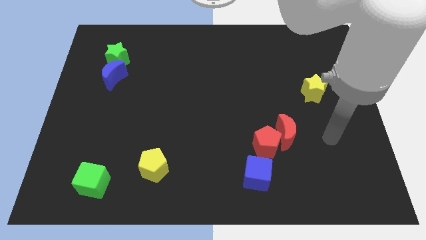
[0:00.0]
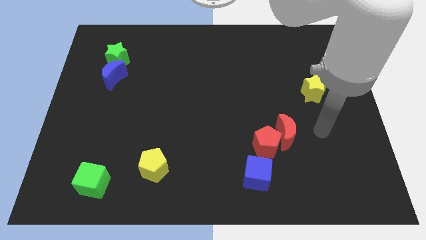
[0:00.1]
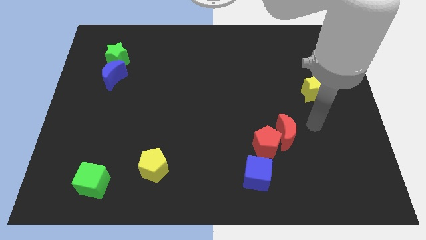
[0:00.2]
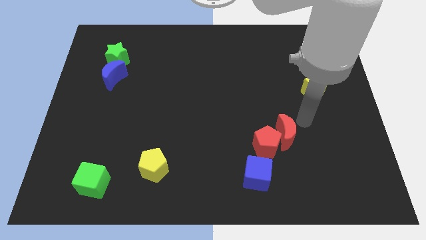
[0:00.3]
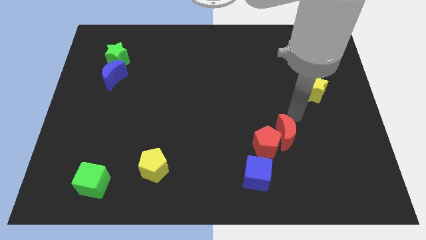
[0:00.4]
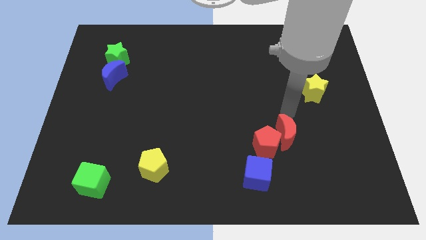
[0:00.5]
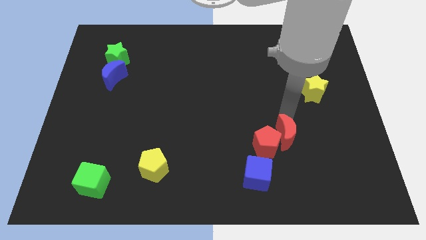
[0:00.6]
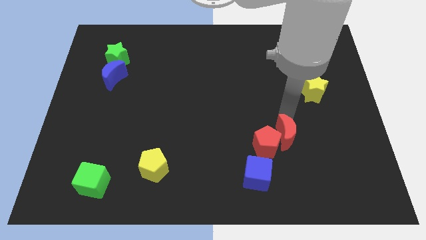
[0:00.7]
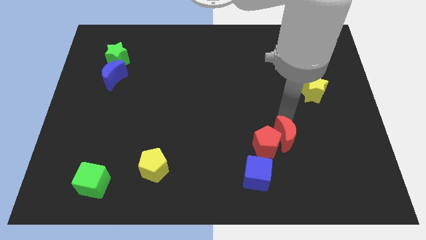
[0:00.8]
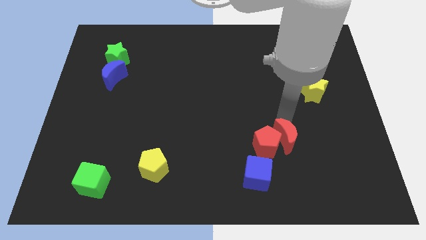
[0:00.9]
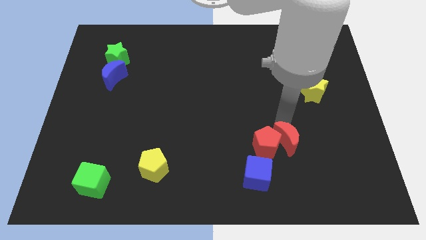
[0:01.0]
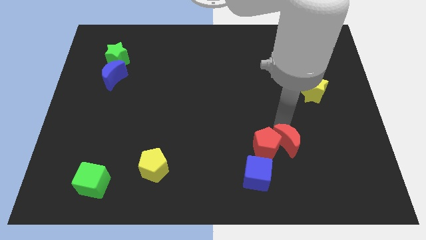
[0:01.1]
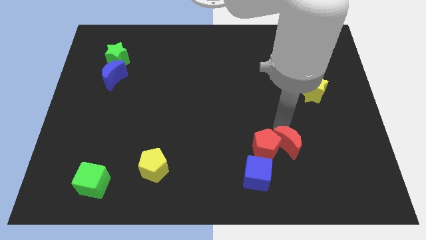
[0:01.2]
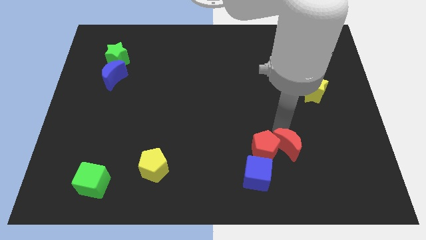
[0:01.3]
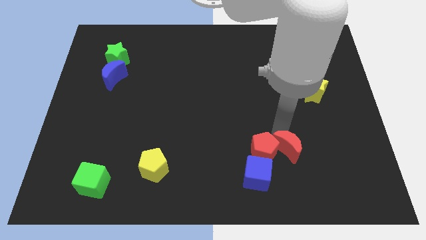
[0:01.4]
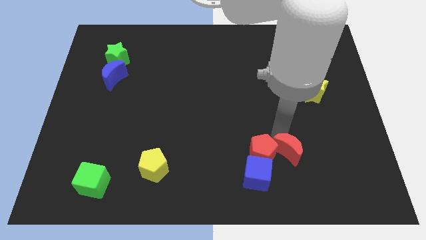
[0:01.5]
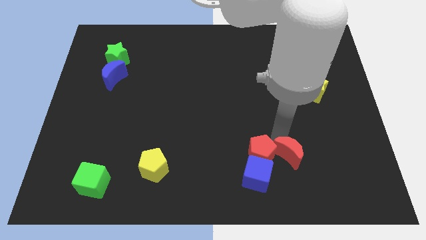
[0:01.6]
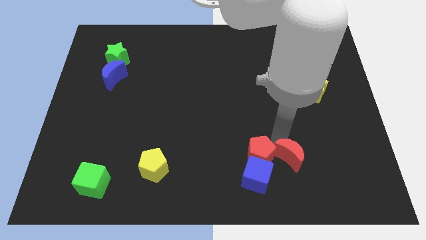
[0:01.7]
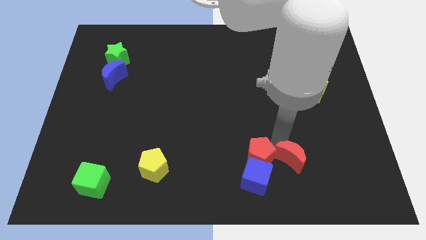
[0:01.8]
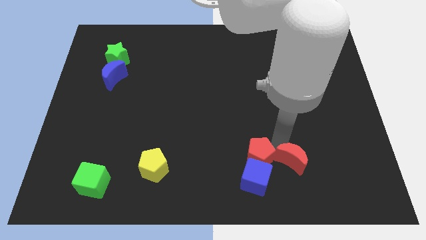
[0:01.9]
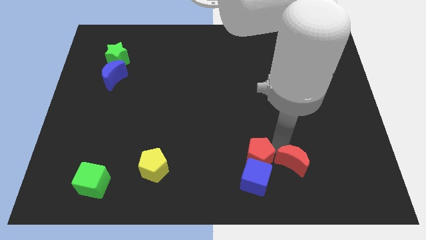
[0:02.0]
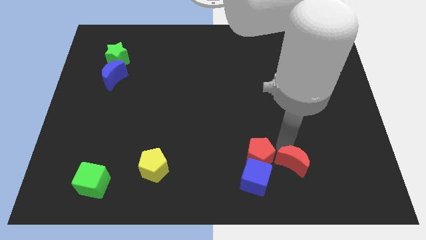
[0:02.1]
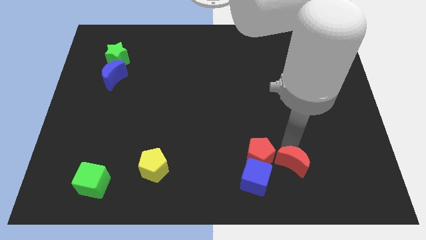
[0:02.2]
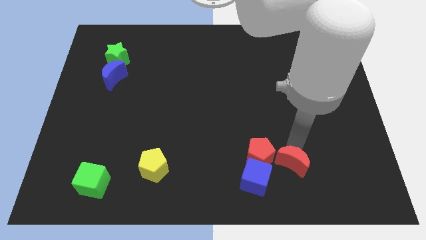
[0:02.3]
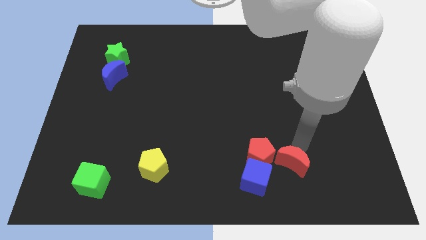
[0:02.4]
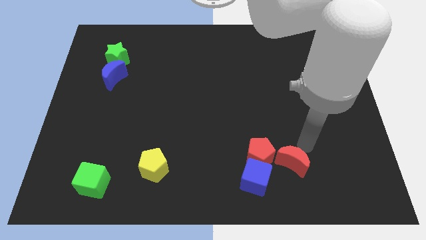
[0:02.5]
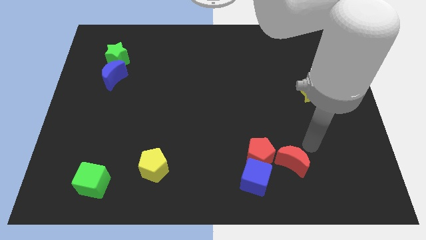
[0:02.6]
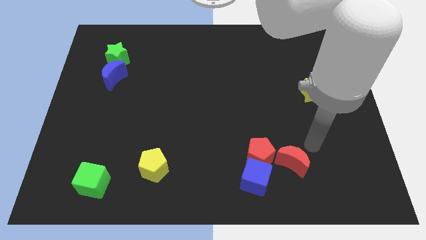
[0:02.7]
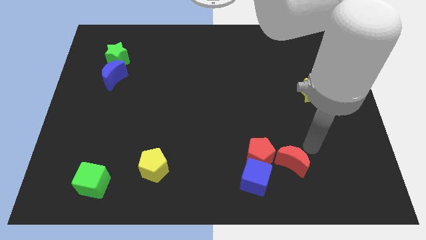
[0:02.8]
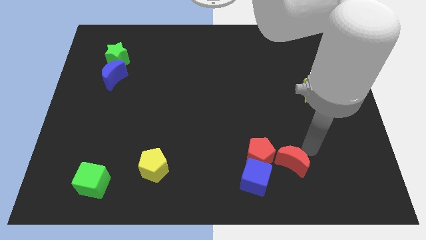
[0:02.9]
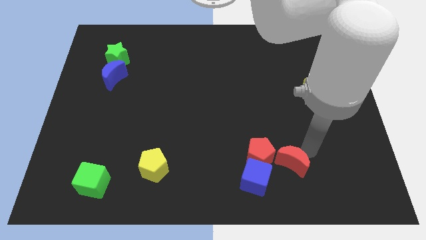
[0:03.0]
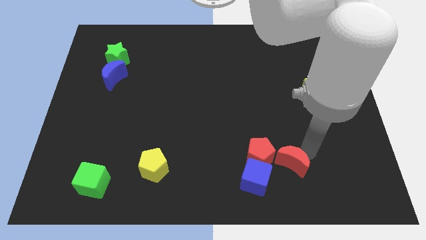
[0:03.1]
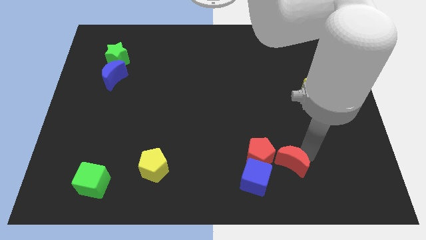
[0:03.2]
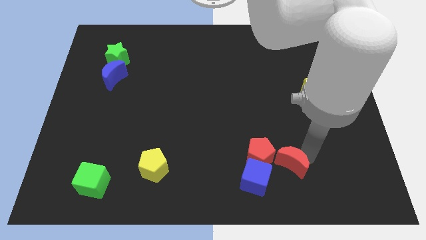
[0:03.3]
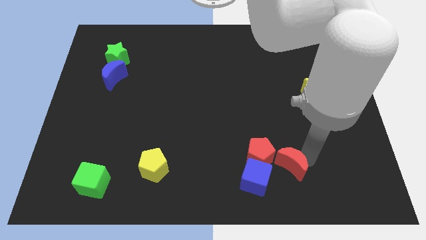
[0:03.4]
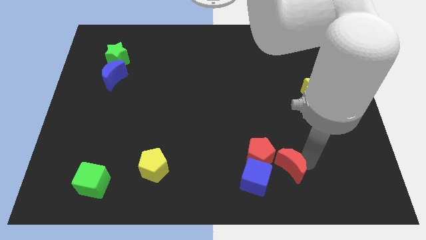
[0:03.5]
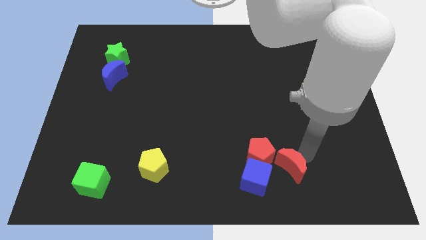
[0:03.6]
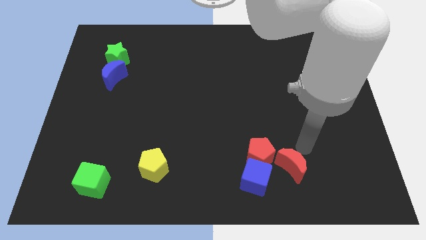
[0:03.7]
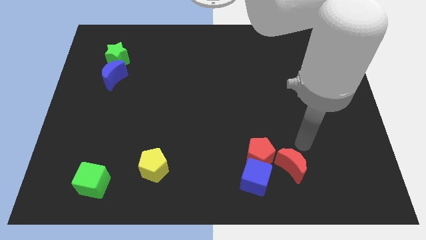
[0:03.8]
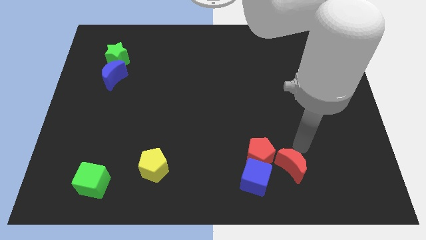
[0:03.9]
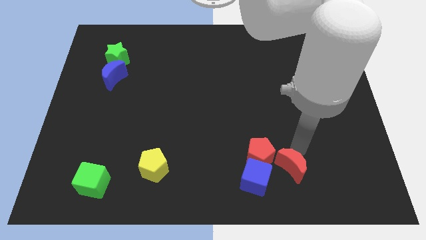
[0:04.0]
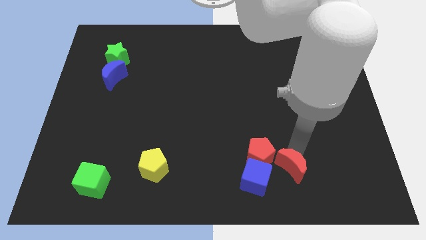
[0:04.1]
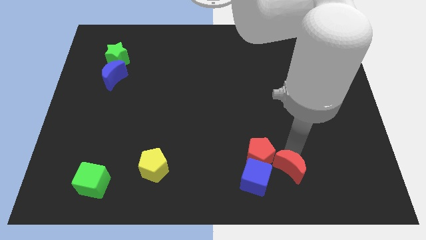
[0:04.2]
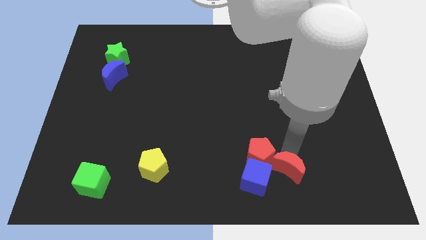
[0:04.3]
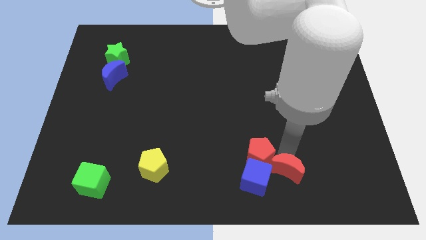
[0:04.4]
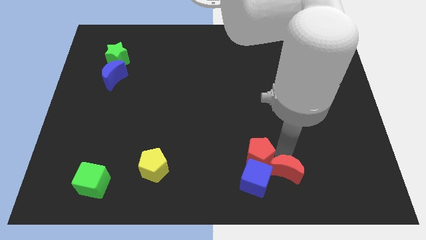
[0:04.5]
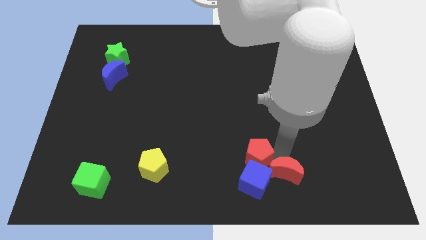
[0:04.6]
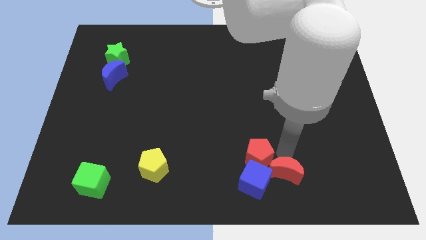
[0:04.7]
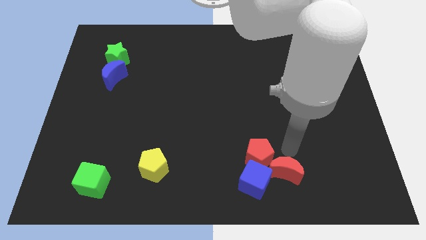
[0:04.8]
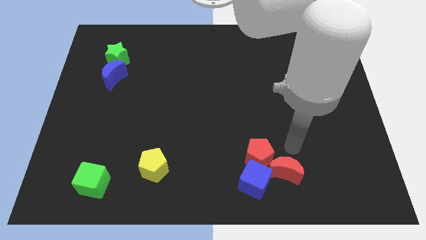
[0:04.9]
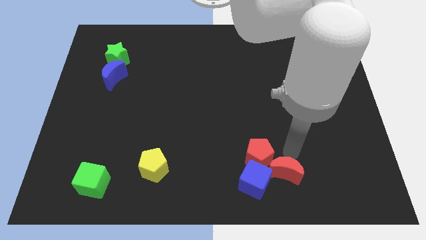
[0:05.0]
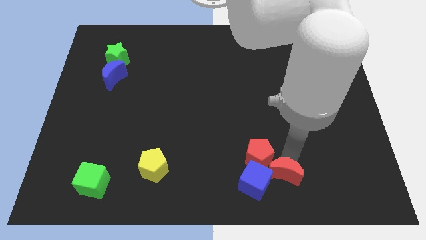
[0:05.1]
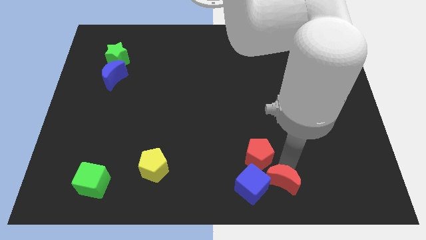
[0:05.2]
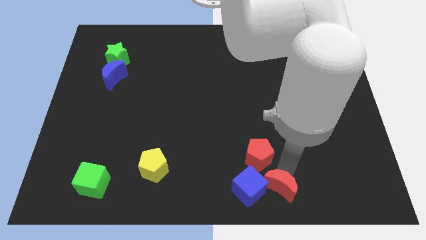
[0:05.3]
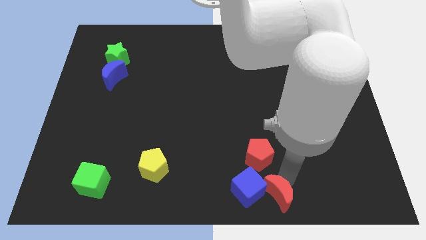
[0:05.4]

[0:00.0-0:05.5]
push the red moon to the bottom side
